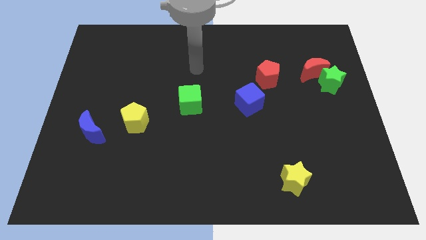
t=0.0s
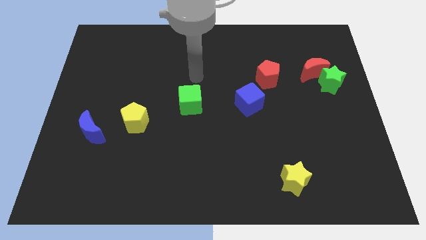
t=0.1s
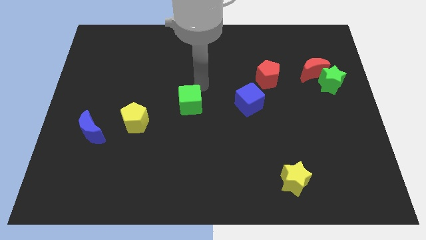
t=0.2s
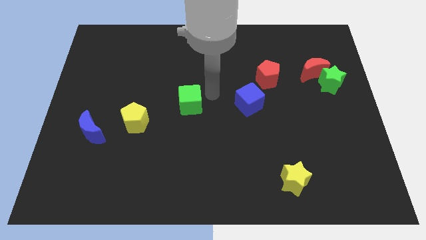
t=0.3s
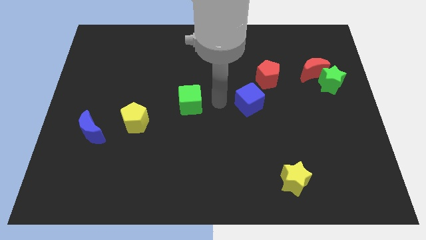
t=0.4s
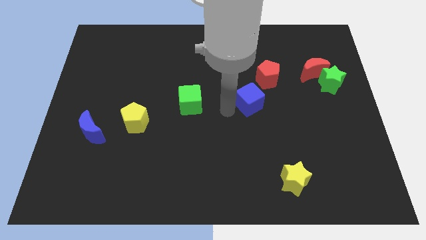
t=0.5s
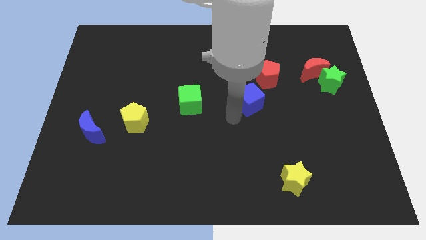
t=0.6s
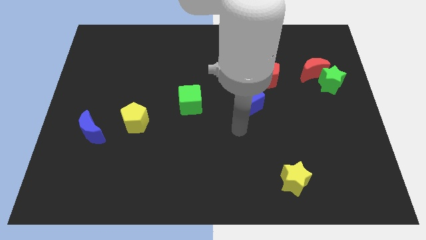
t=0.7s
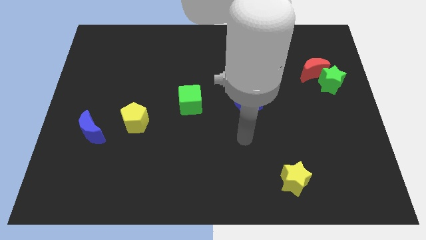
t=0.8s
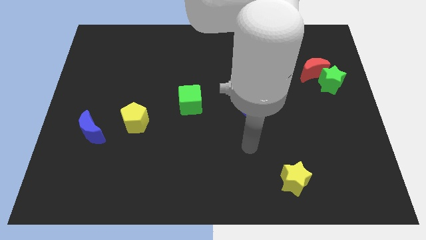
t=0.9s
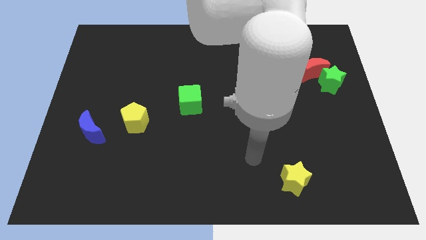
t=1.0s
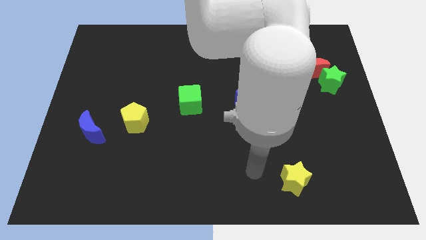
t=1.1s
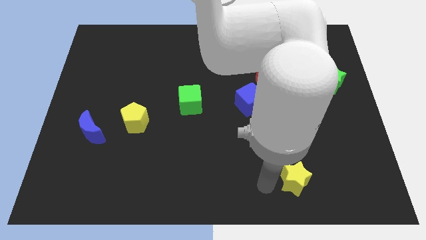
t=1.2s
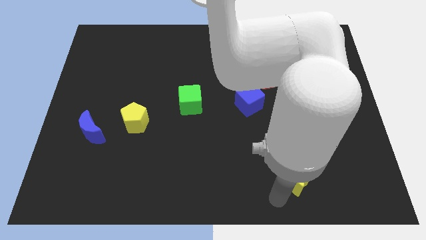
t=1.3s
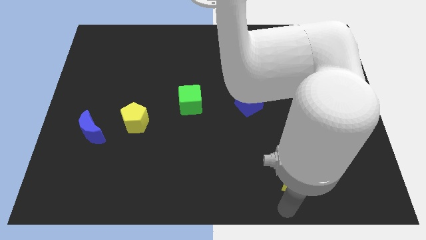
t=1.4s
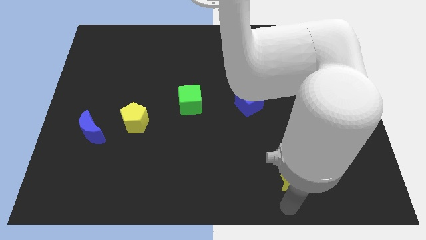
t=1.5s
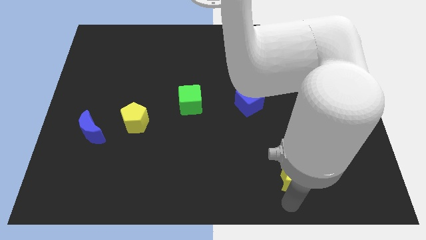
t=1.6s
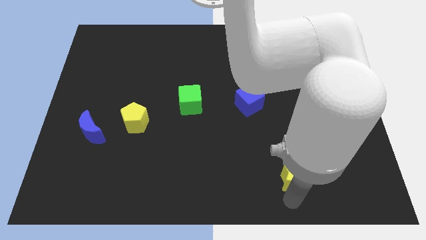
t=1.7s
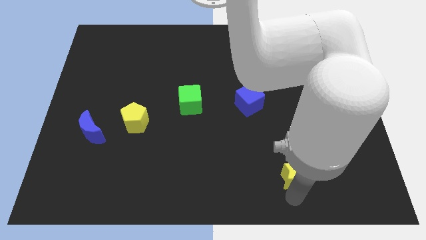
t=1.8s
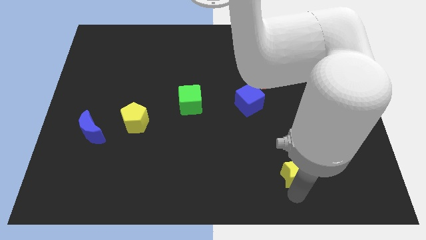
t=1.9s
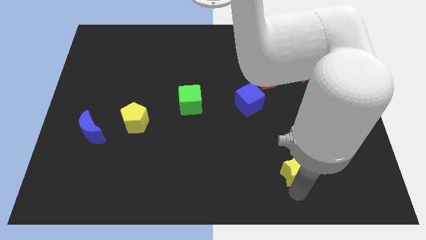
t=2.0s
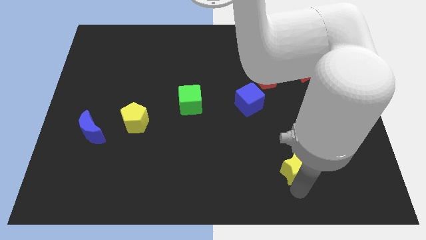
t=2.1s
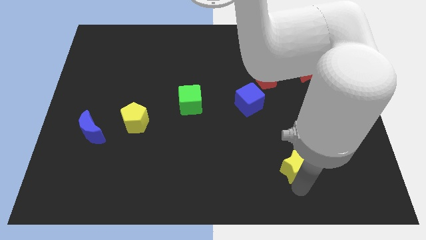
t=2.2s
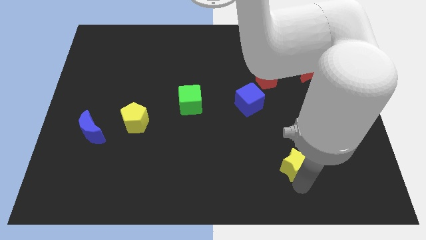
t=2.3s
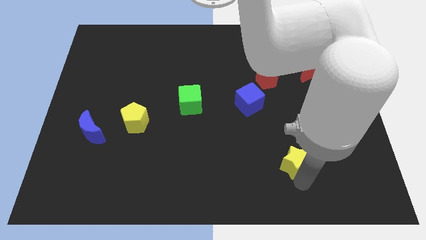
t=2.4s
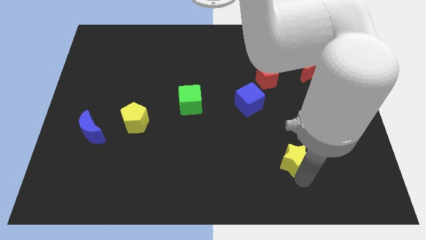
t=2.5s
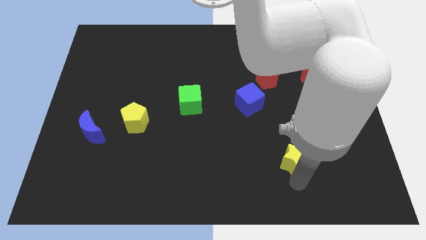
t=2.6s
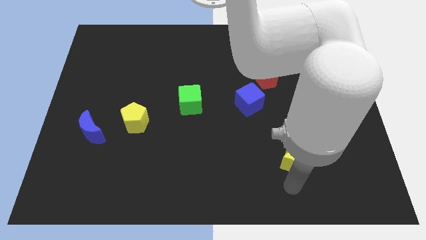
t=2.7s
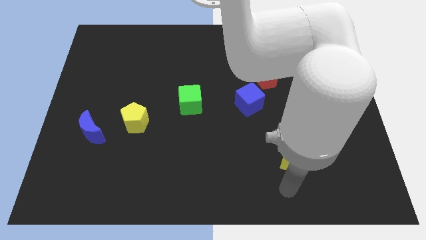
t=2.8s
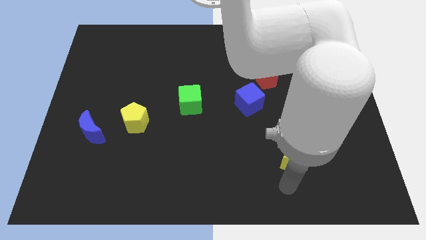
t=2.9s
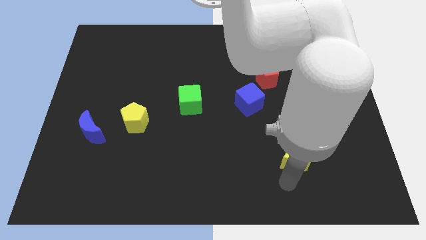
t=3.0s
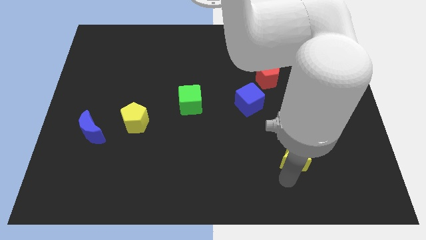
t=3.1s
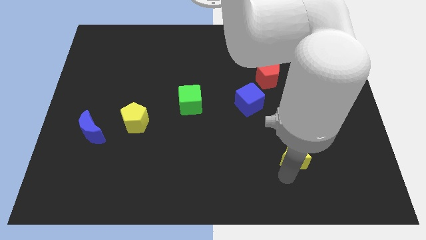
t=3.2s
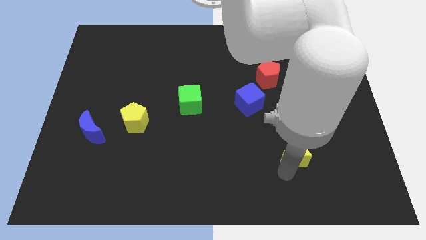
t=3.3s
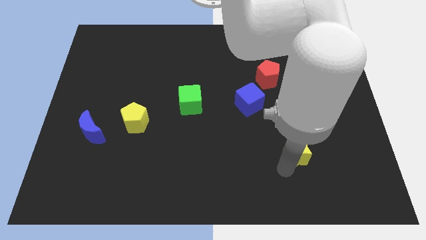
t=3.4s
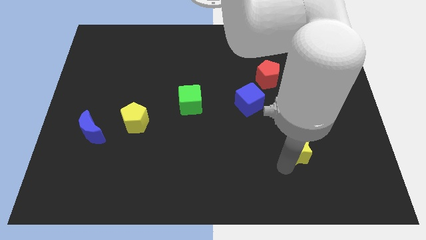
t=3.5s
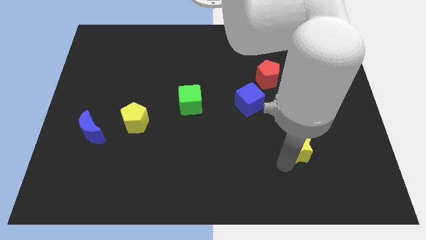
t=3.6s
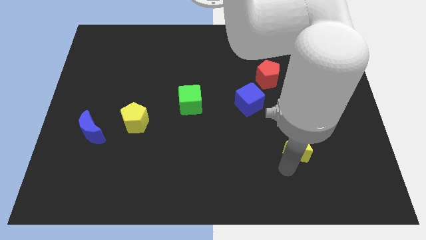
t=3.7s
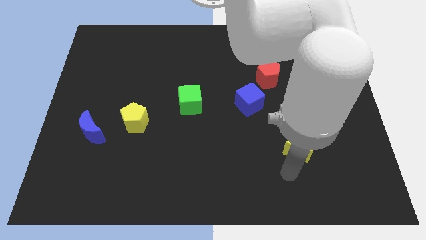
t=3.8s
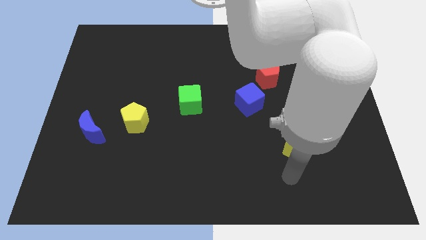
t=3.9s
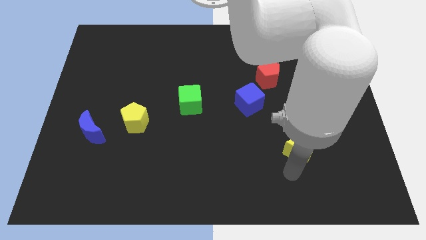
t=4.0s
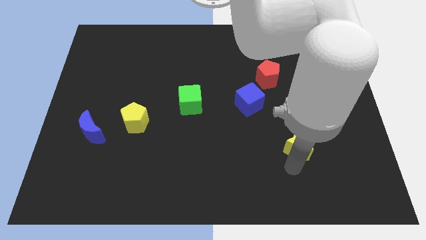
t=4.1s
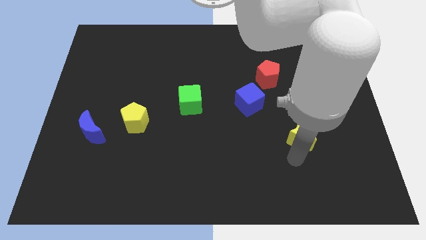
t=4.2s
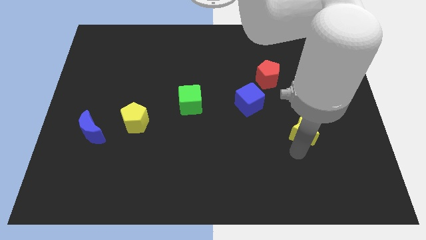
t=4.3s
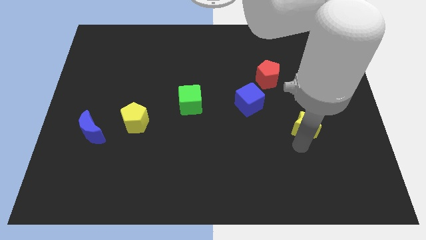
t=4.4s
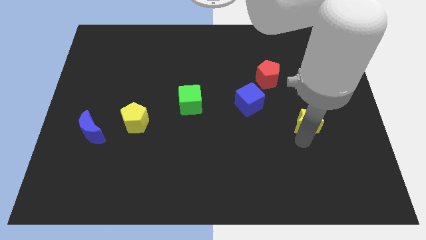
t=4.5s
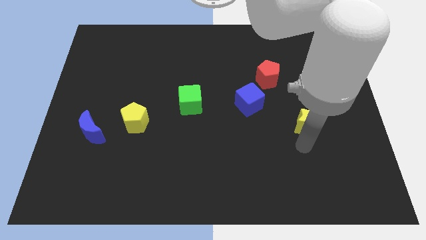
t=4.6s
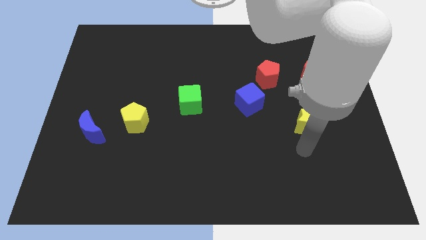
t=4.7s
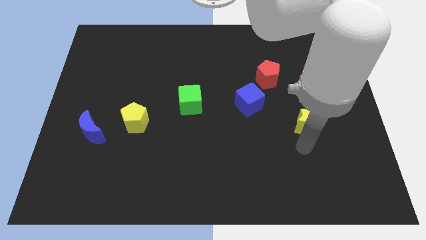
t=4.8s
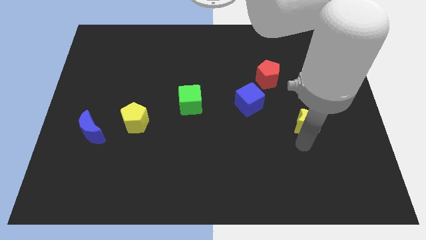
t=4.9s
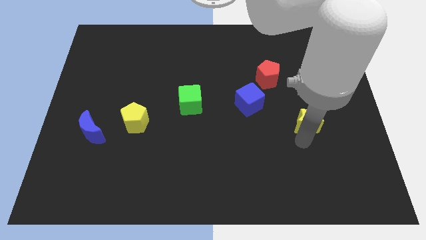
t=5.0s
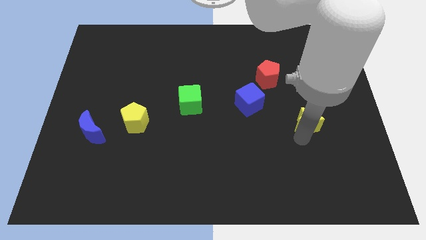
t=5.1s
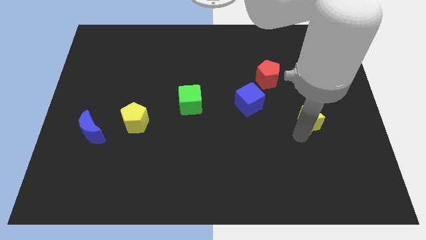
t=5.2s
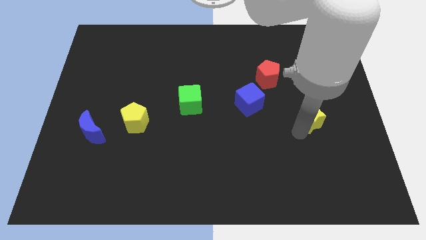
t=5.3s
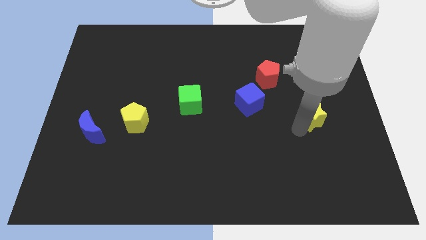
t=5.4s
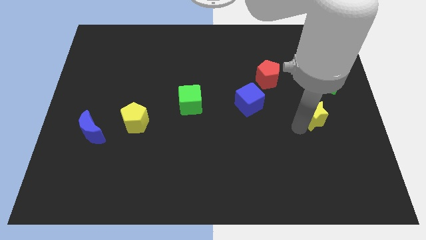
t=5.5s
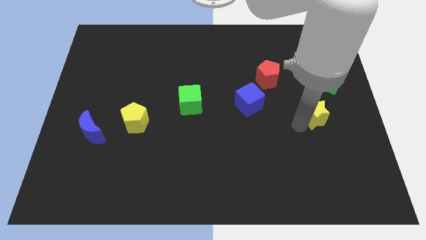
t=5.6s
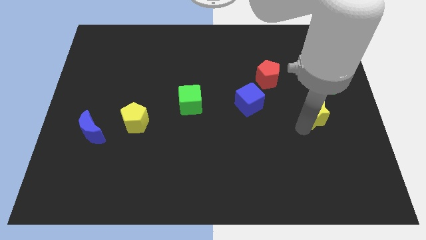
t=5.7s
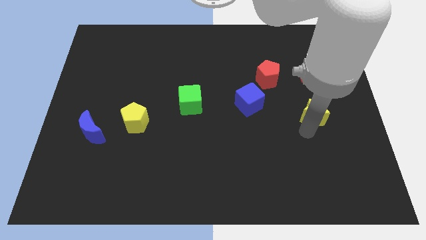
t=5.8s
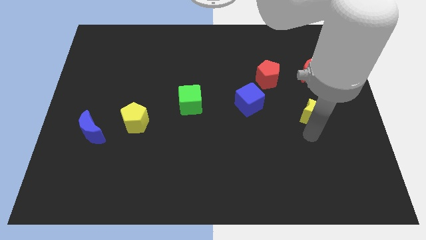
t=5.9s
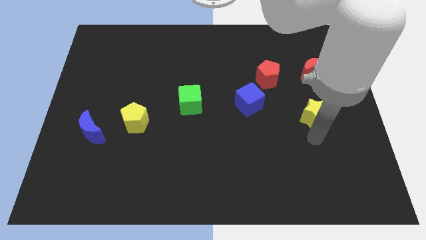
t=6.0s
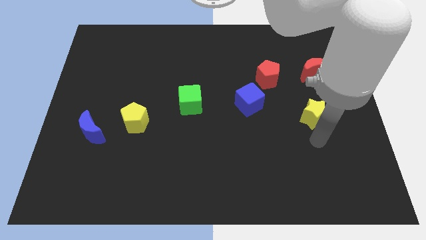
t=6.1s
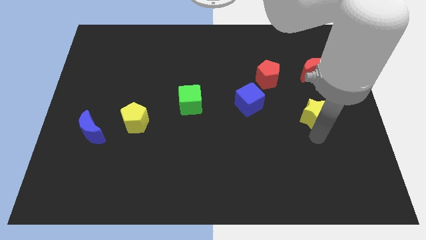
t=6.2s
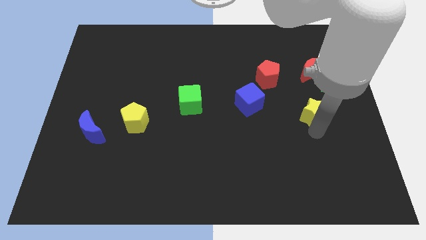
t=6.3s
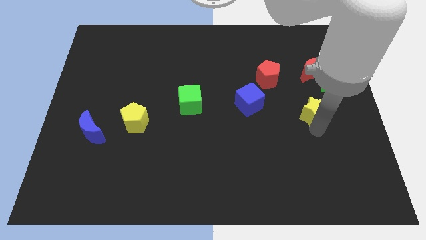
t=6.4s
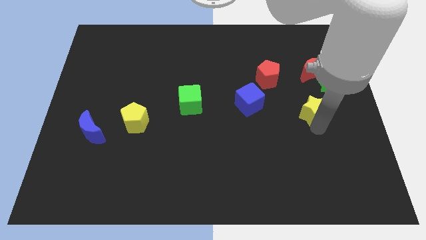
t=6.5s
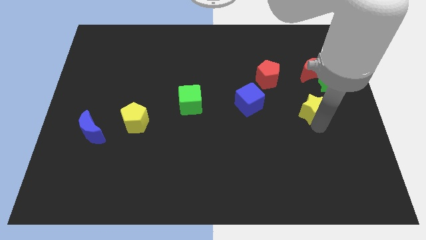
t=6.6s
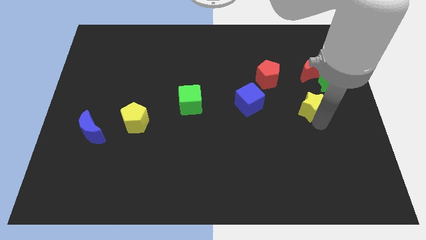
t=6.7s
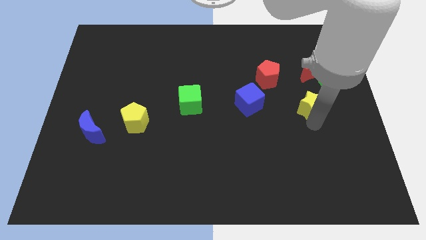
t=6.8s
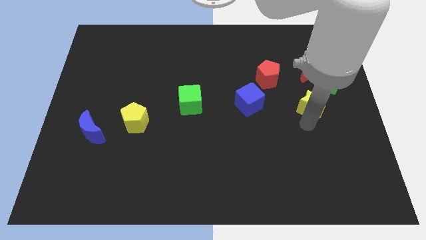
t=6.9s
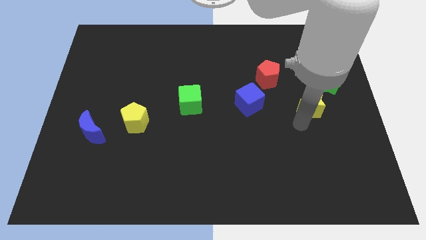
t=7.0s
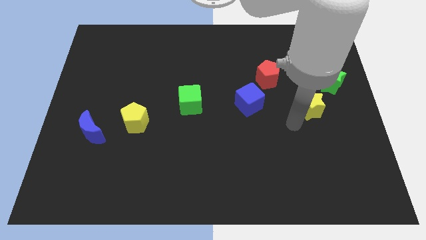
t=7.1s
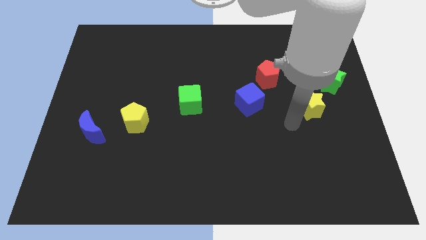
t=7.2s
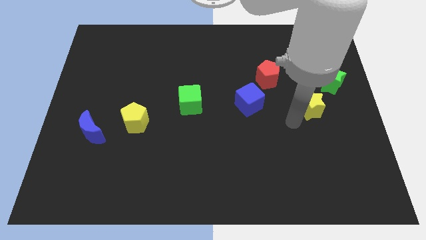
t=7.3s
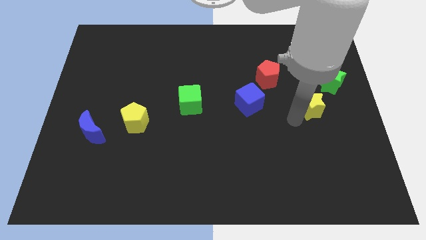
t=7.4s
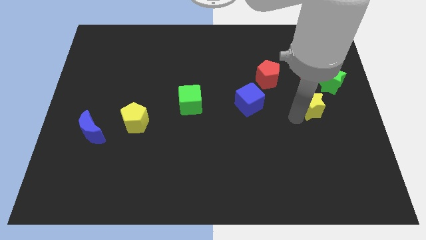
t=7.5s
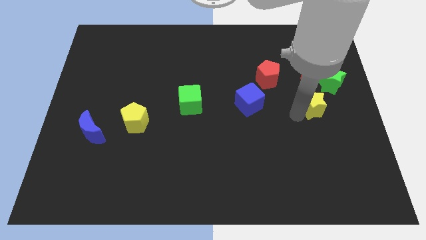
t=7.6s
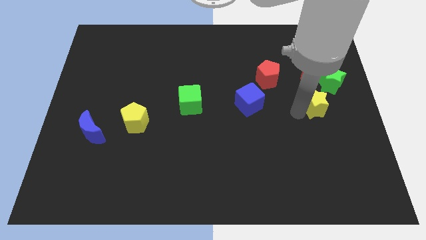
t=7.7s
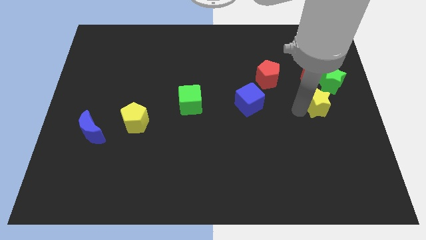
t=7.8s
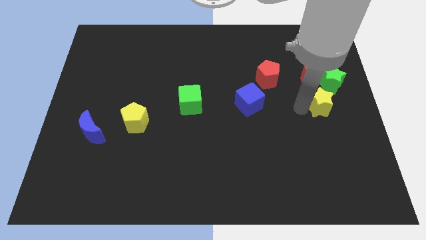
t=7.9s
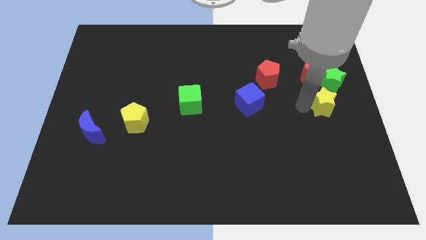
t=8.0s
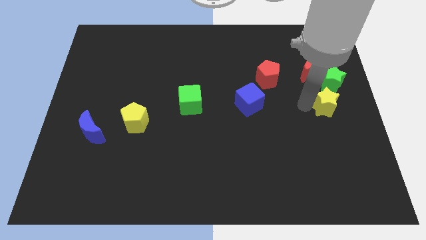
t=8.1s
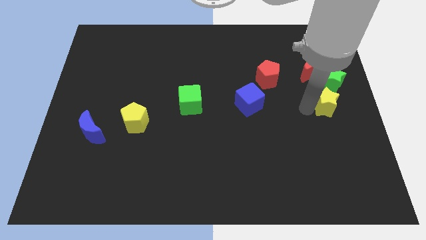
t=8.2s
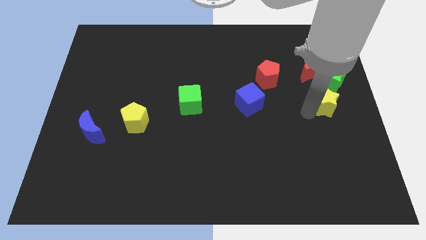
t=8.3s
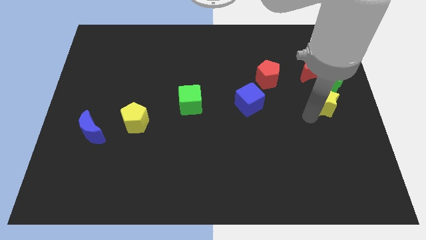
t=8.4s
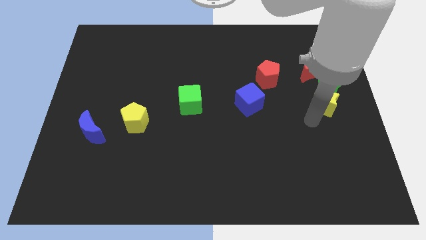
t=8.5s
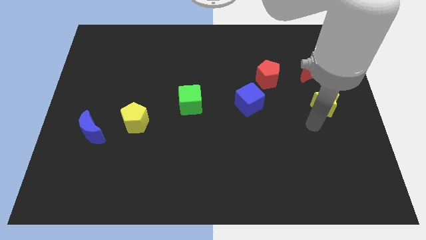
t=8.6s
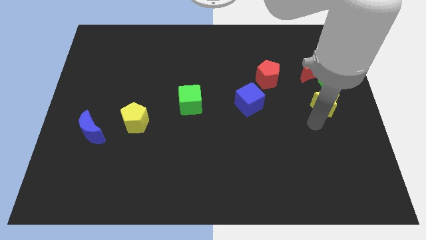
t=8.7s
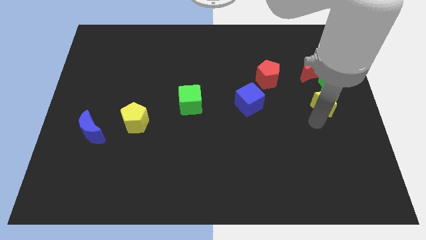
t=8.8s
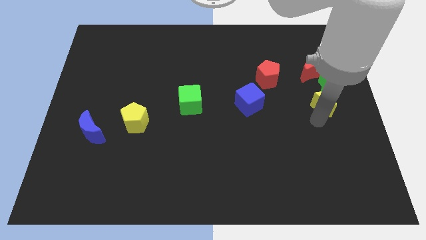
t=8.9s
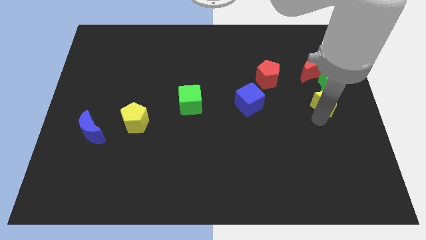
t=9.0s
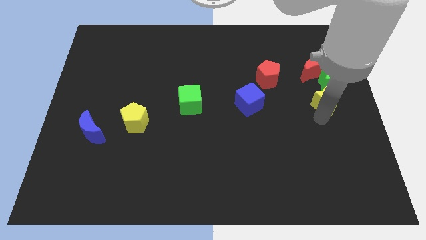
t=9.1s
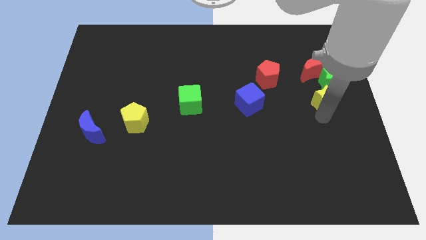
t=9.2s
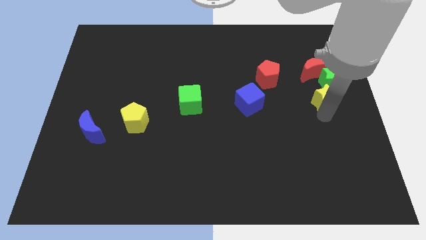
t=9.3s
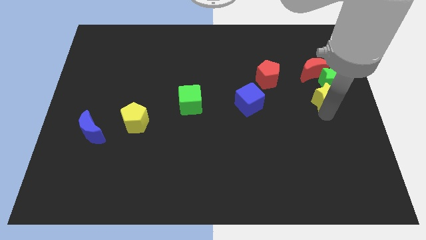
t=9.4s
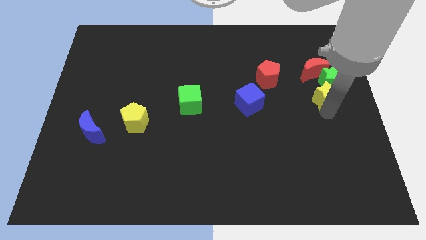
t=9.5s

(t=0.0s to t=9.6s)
push the yellow star to the green star
